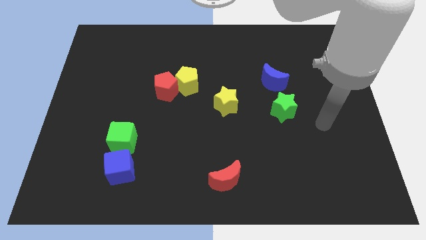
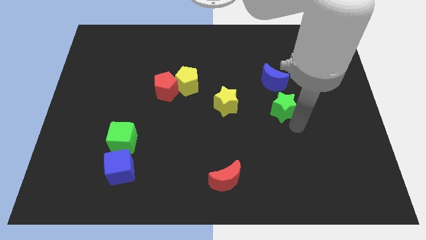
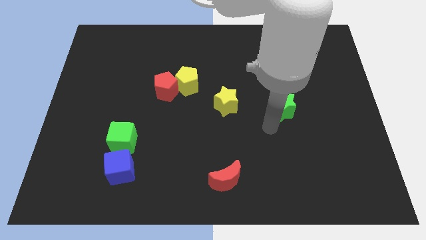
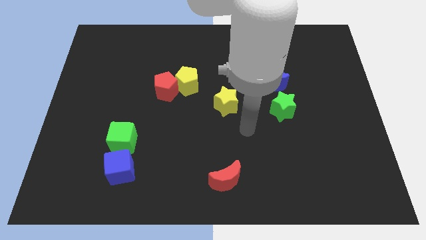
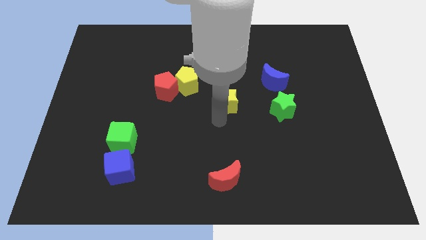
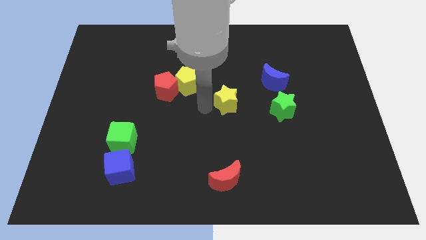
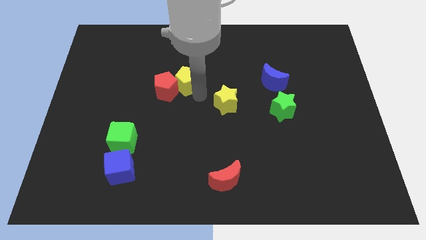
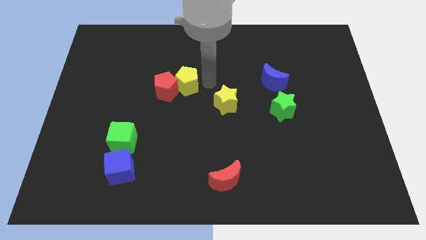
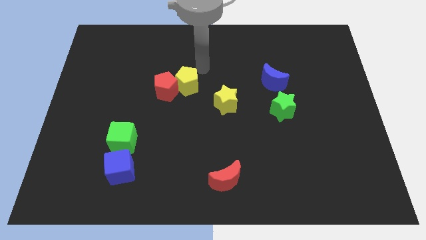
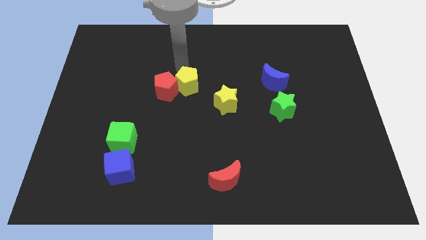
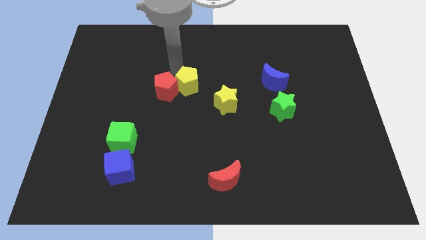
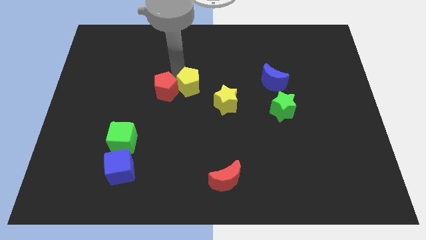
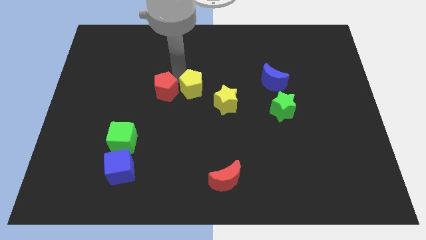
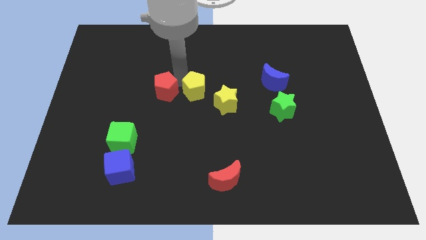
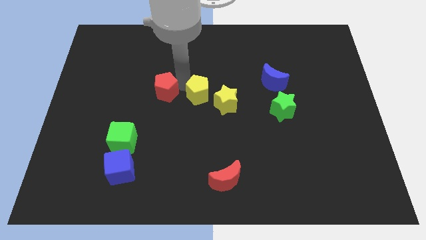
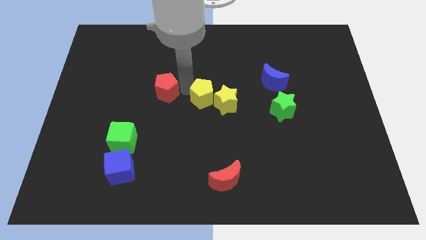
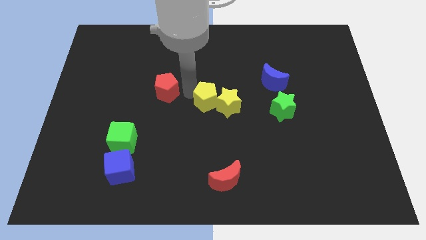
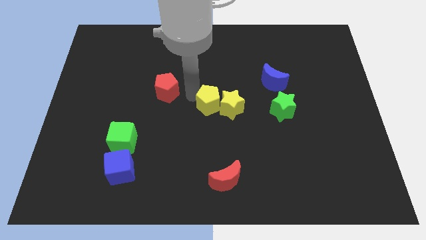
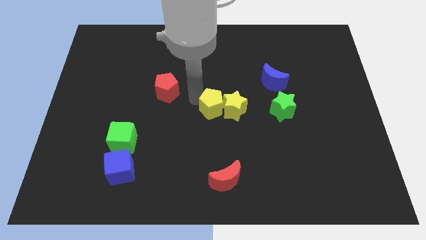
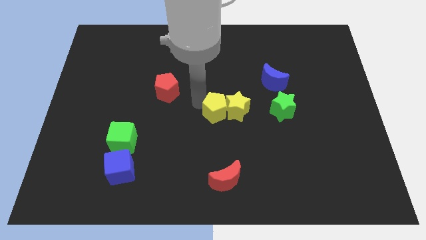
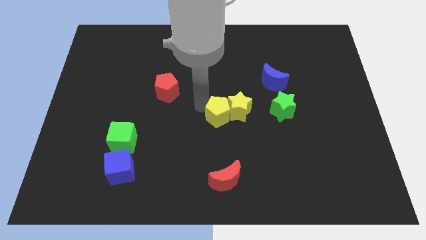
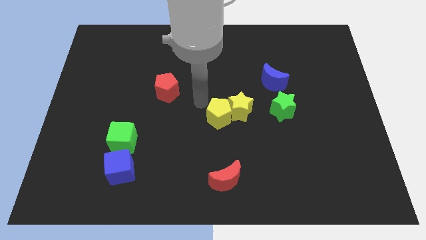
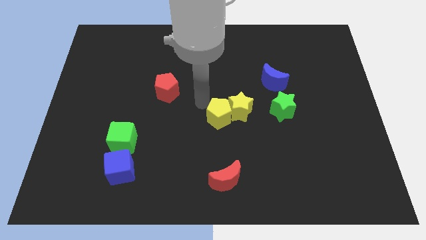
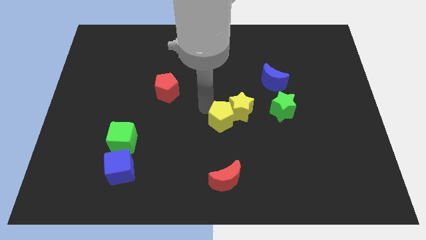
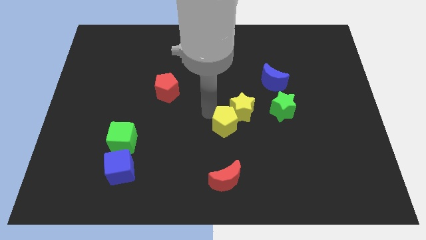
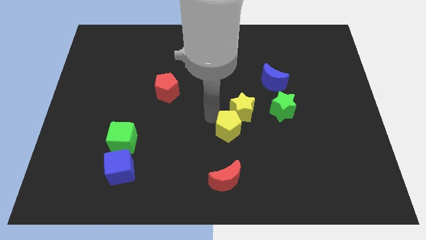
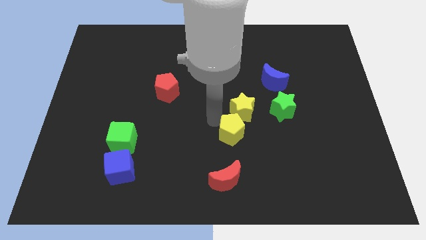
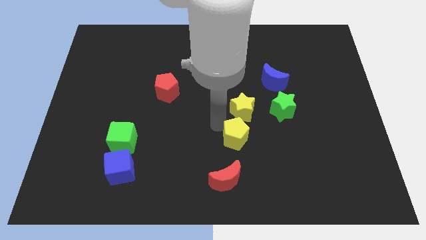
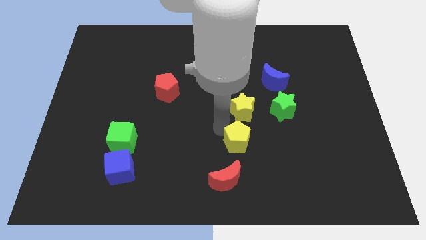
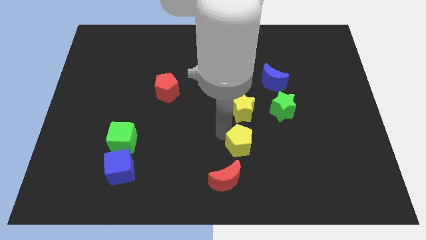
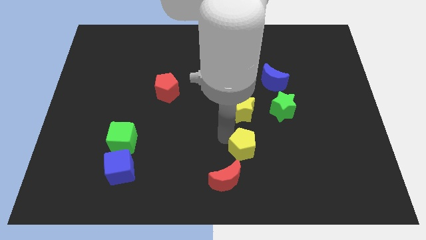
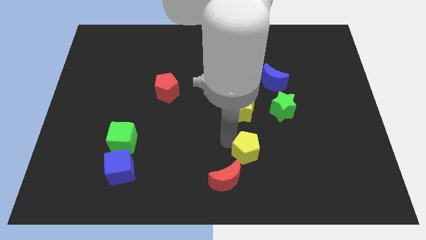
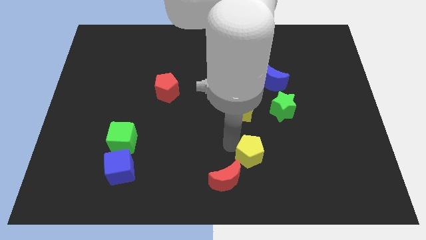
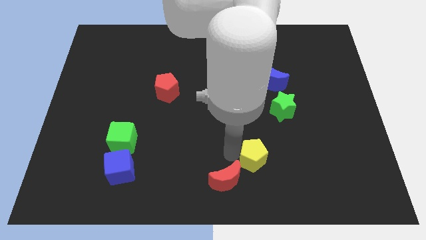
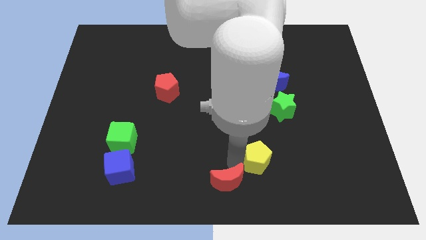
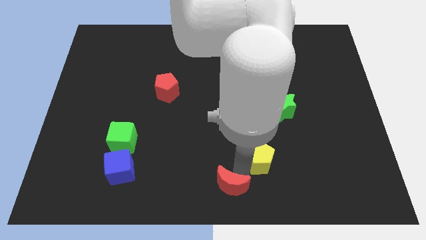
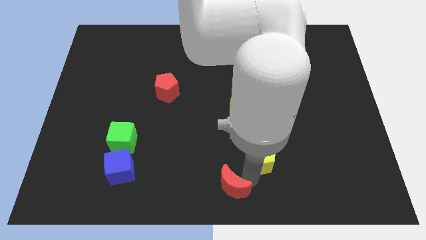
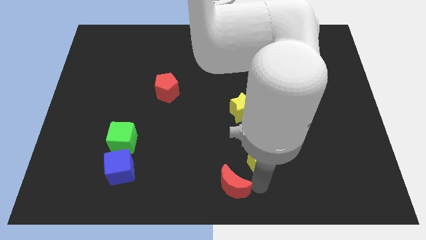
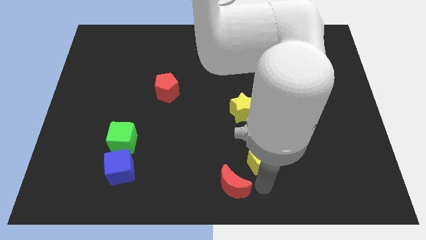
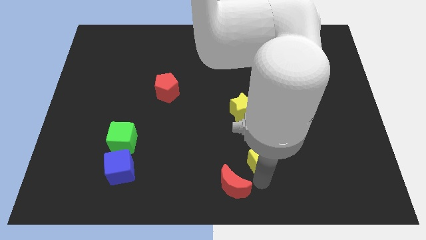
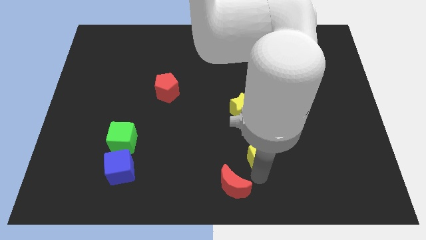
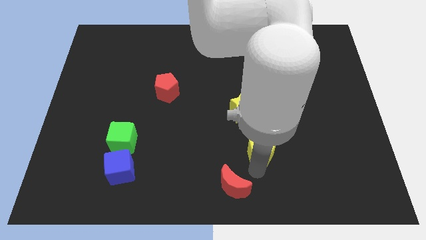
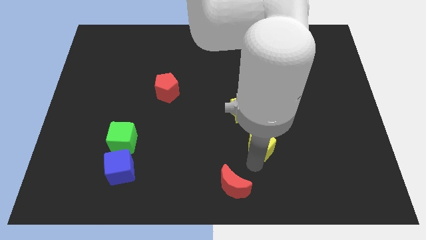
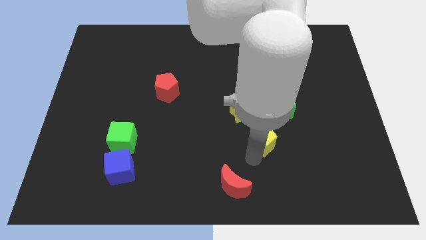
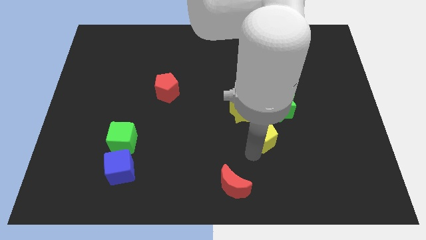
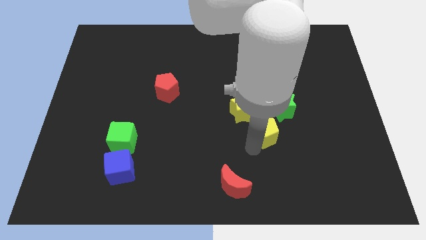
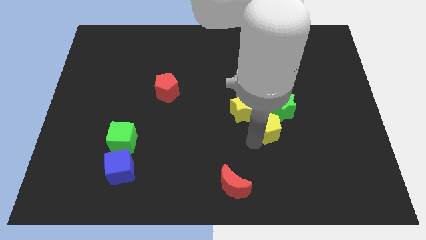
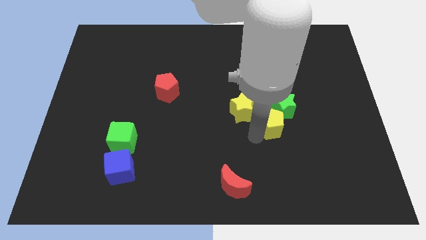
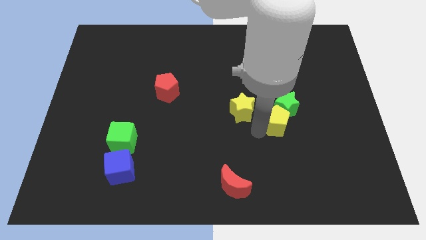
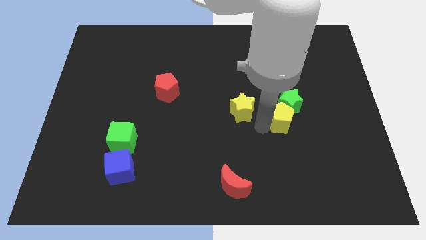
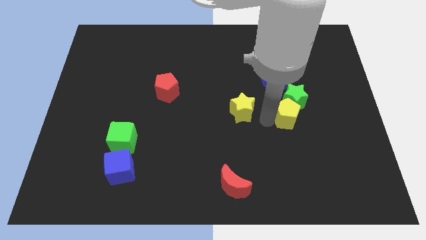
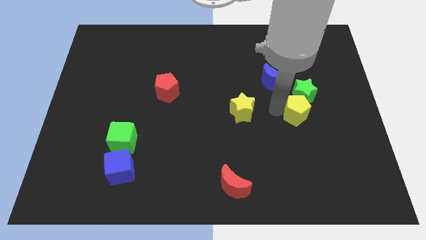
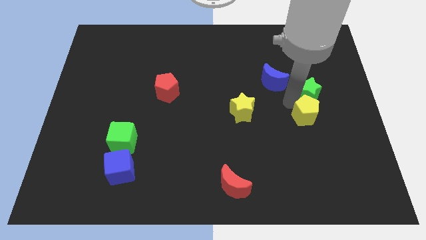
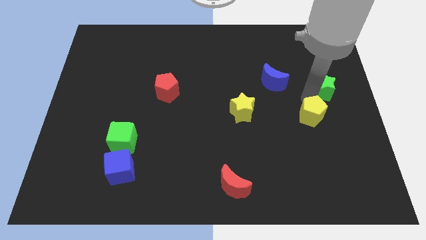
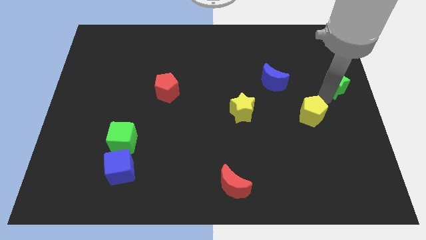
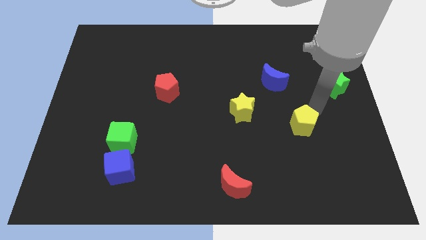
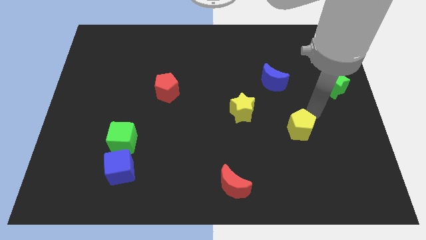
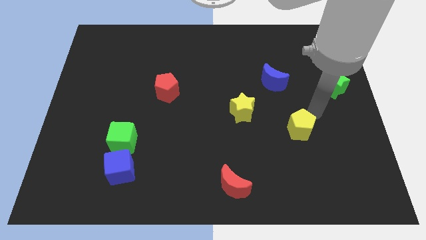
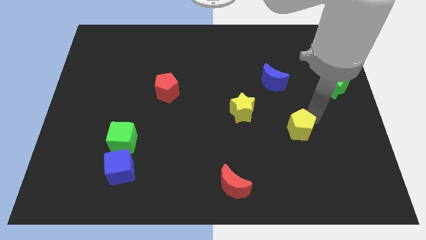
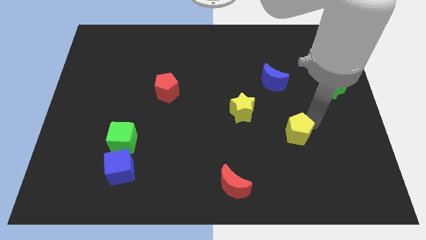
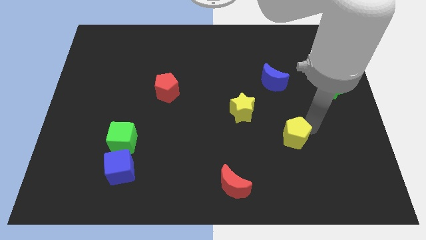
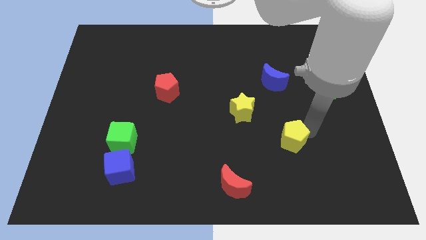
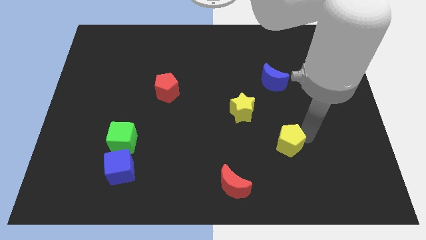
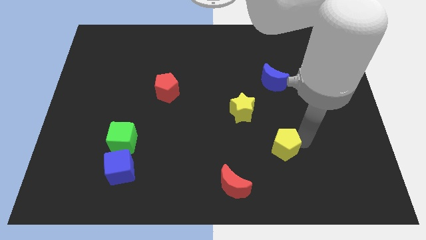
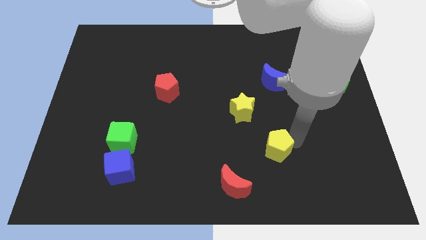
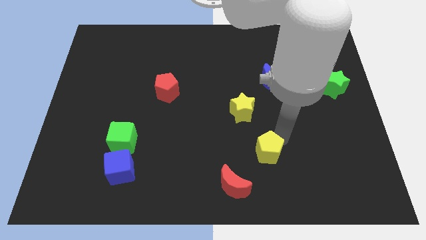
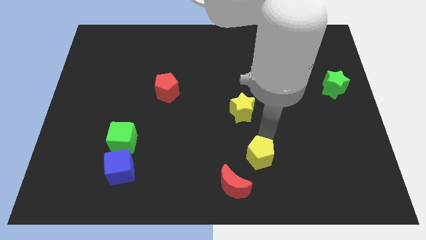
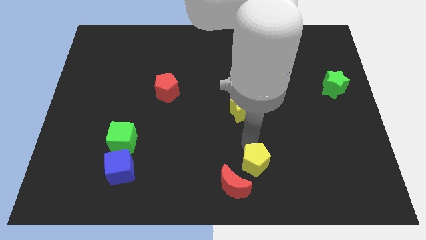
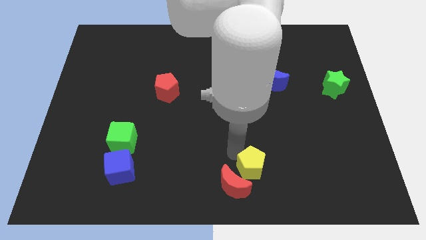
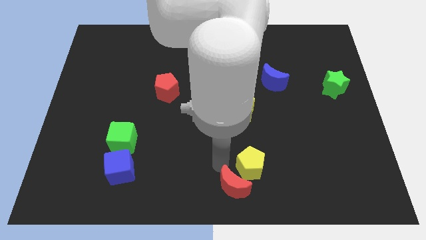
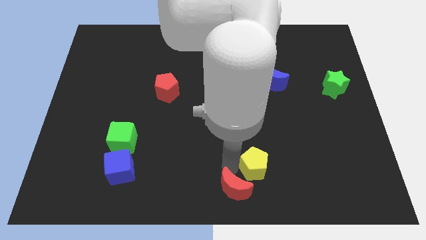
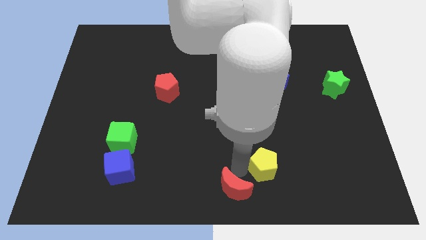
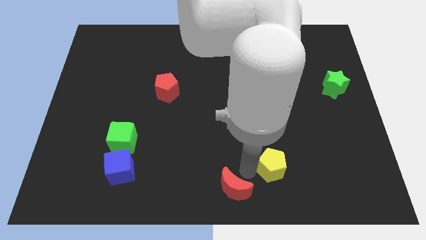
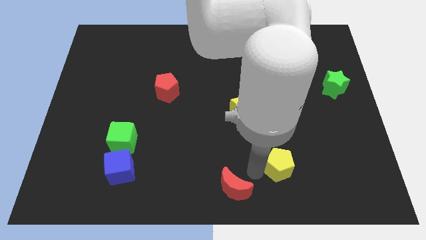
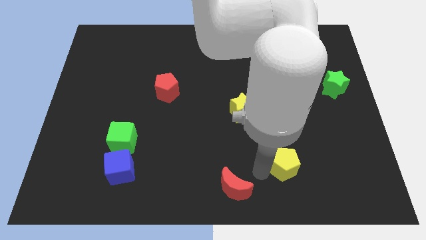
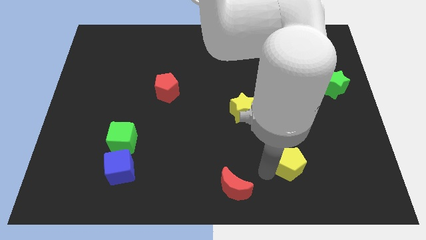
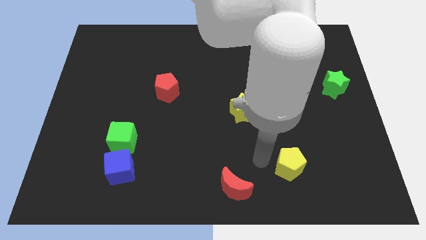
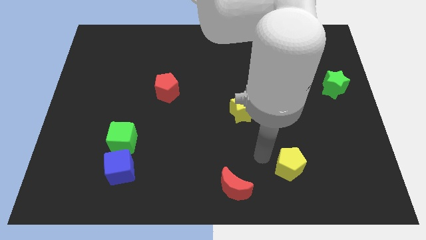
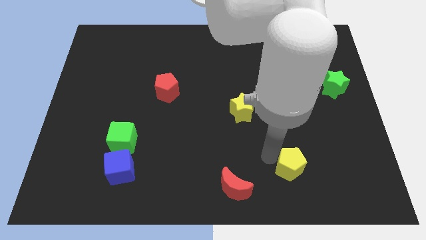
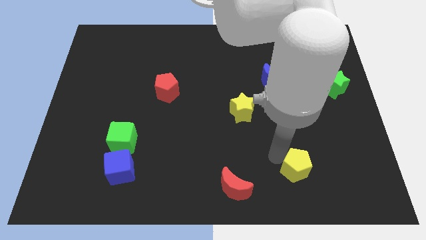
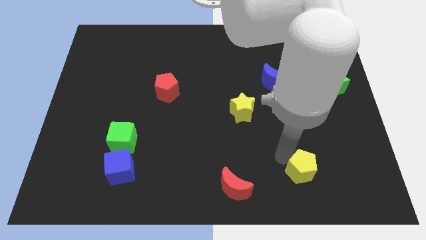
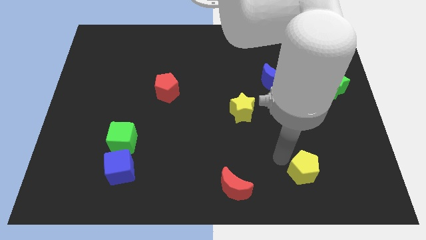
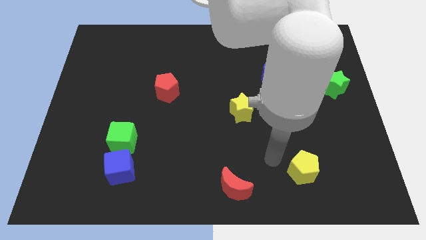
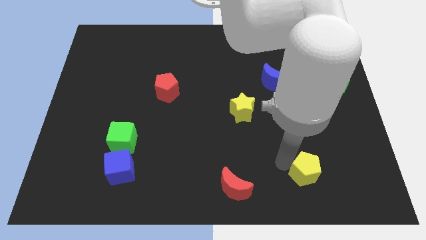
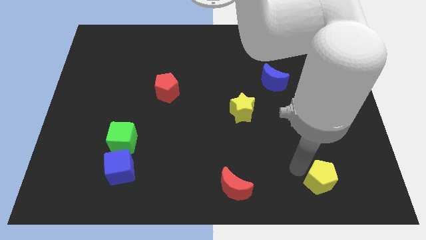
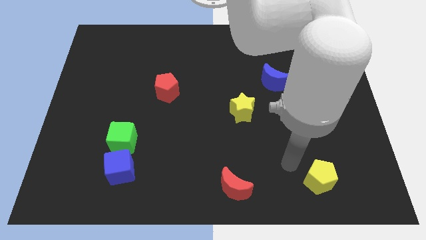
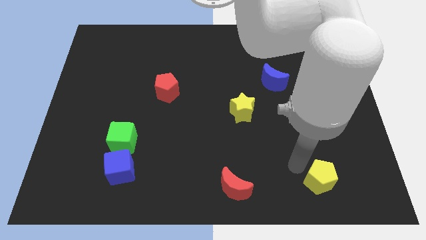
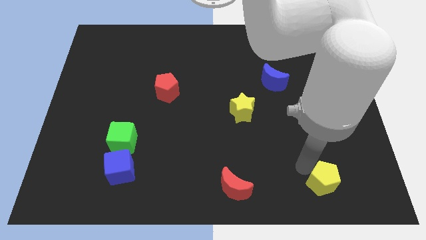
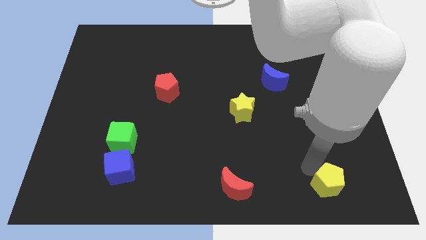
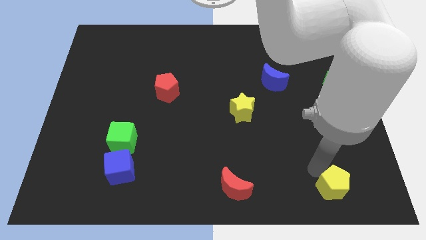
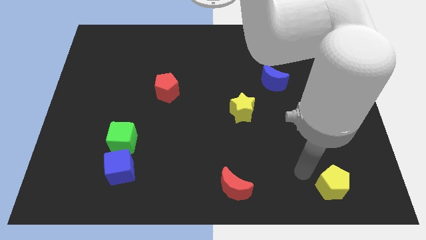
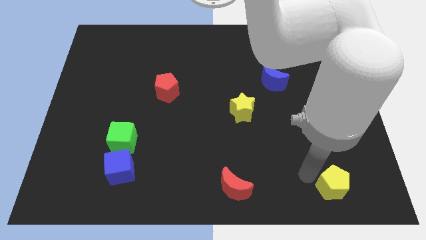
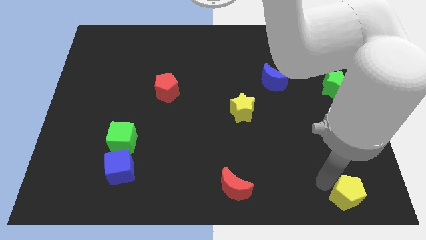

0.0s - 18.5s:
put the yellow pentagon to the bottom right
